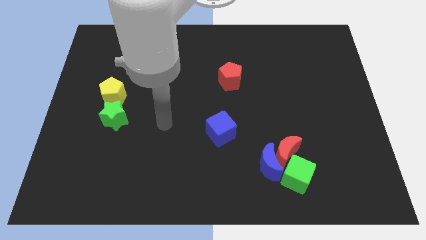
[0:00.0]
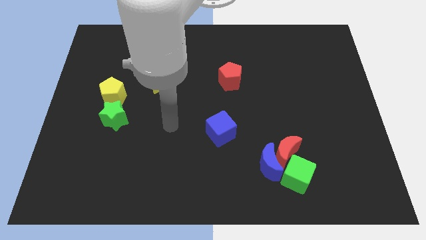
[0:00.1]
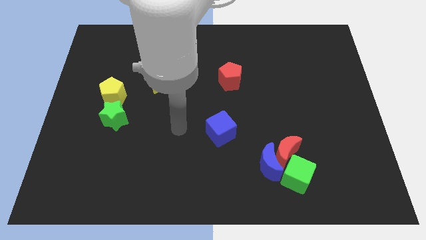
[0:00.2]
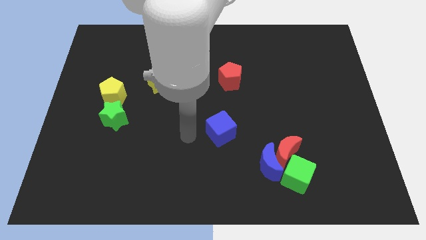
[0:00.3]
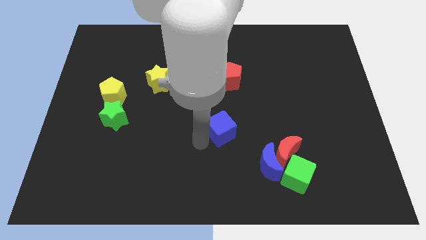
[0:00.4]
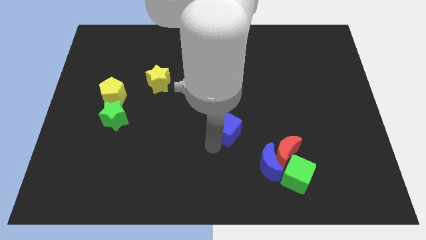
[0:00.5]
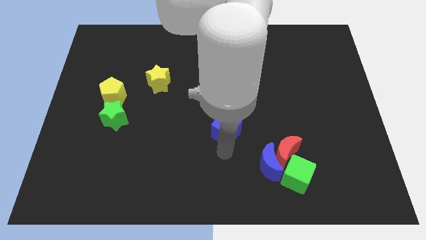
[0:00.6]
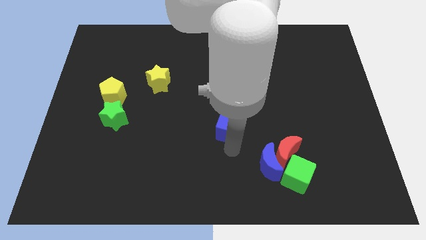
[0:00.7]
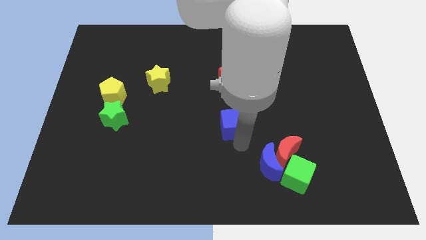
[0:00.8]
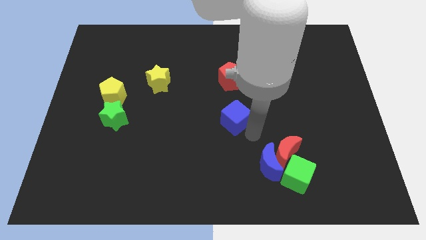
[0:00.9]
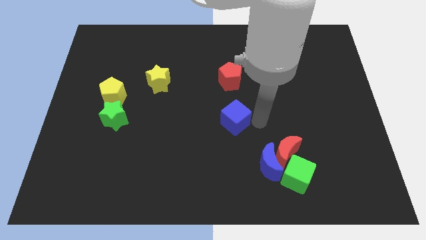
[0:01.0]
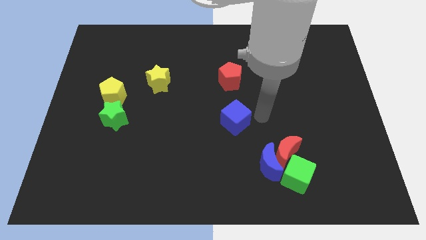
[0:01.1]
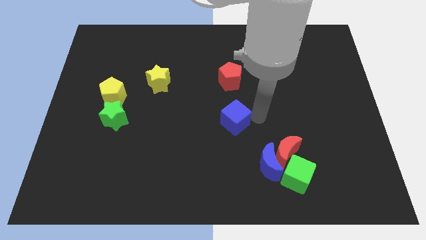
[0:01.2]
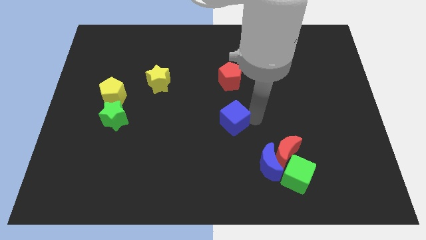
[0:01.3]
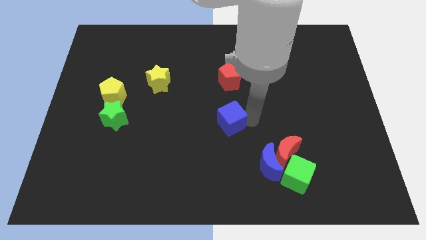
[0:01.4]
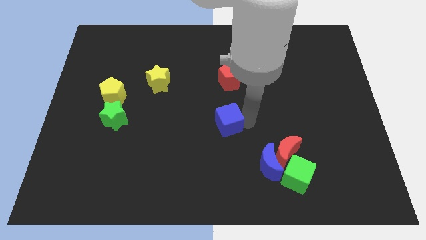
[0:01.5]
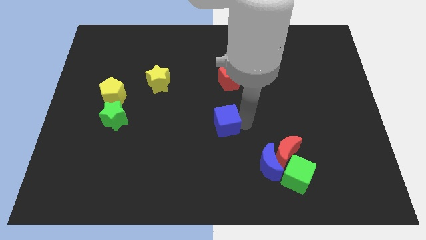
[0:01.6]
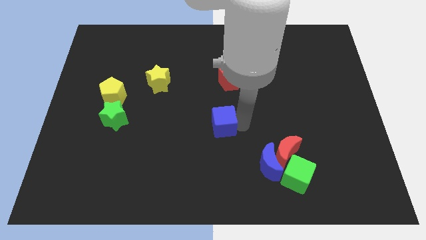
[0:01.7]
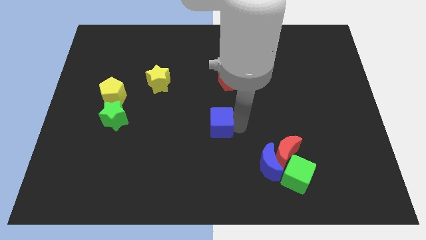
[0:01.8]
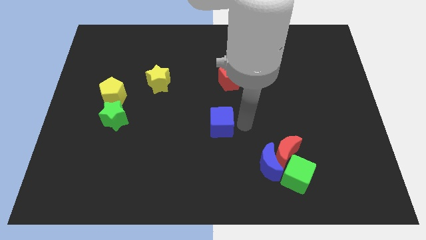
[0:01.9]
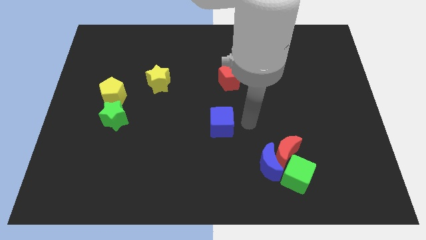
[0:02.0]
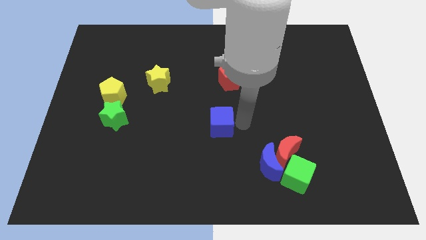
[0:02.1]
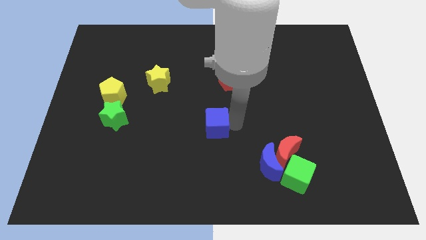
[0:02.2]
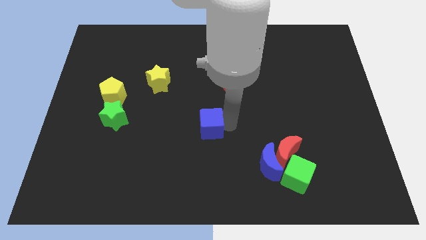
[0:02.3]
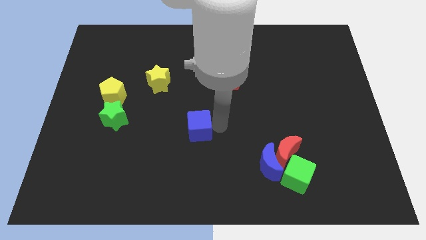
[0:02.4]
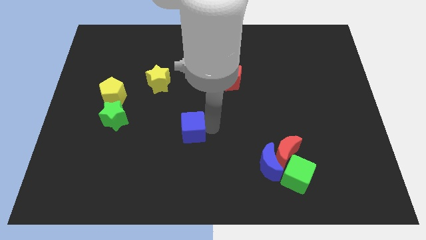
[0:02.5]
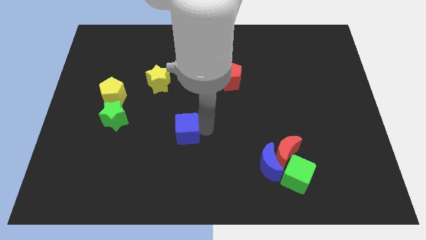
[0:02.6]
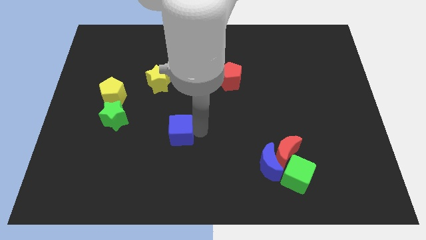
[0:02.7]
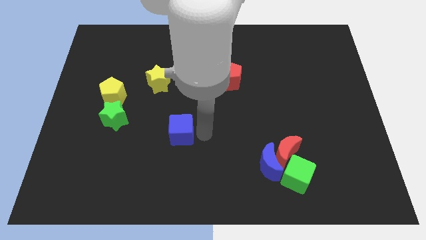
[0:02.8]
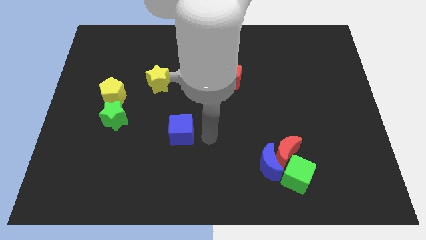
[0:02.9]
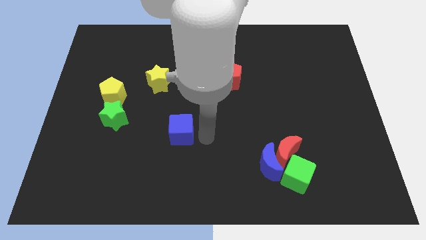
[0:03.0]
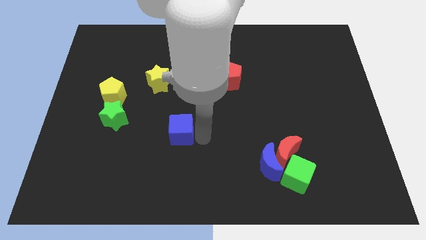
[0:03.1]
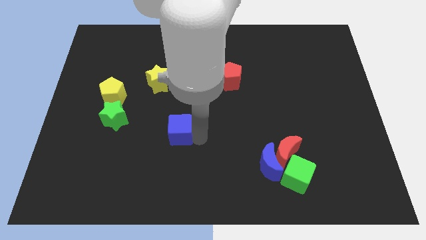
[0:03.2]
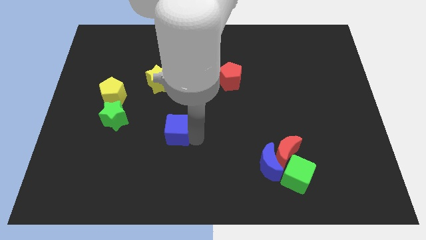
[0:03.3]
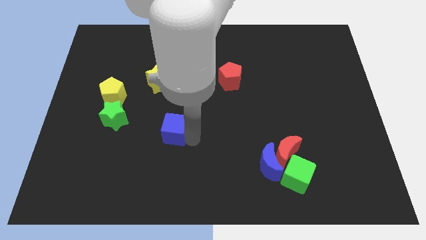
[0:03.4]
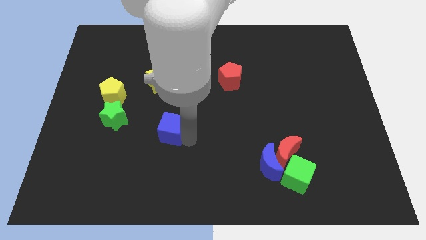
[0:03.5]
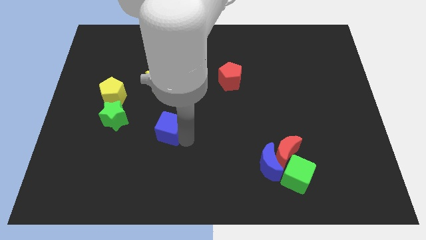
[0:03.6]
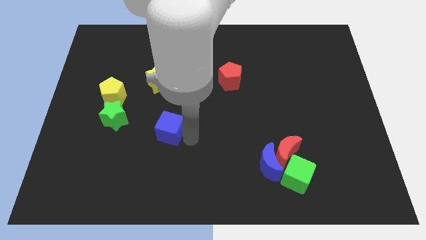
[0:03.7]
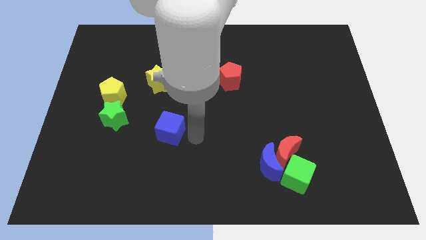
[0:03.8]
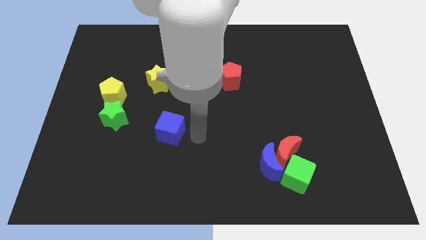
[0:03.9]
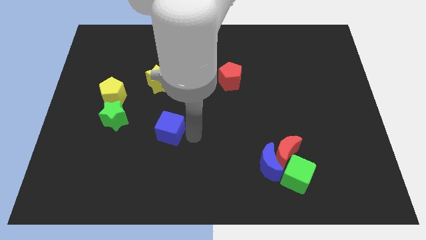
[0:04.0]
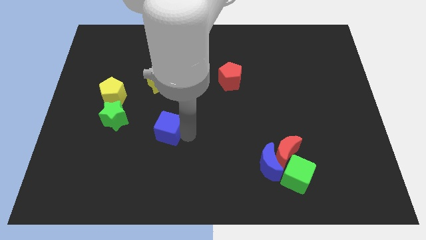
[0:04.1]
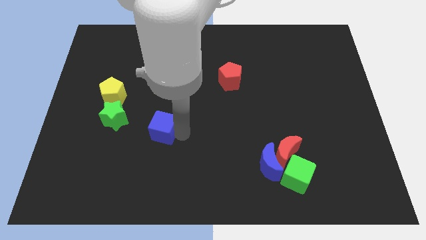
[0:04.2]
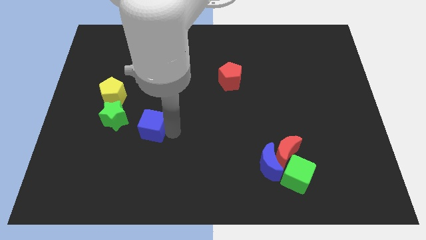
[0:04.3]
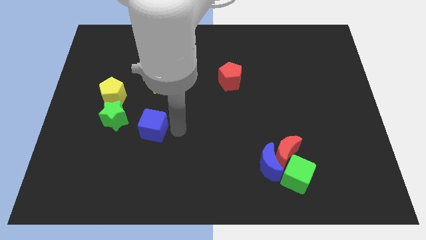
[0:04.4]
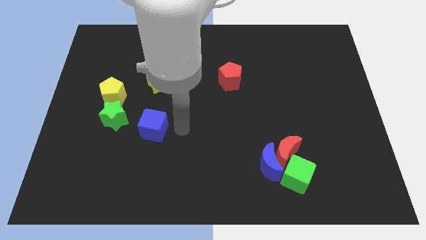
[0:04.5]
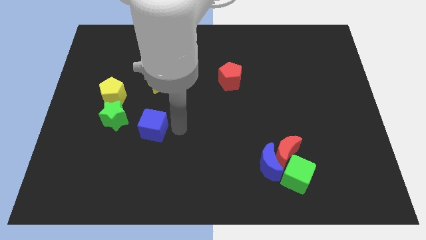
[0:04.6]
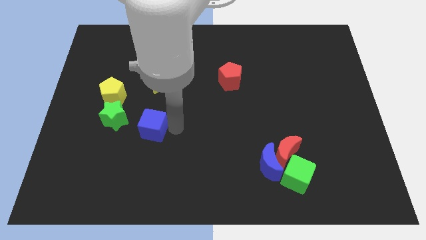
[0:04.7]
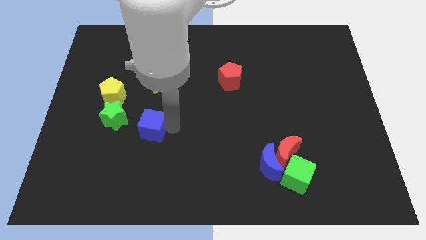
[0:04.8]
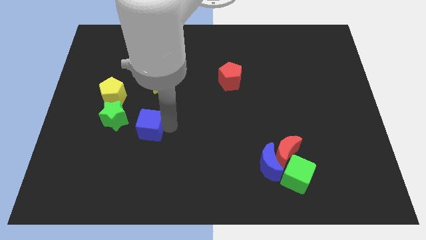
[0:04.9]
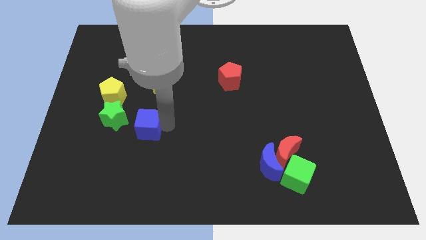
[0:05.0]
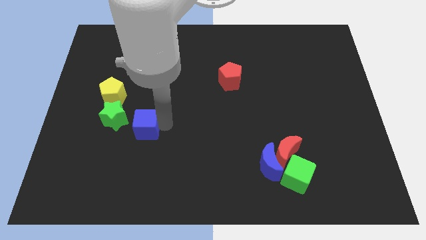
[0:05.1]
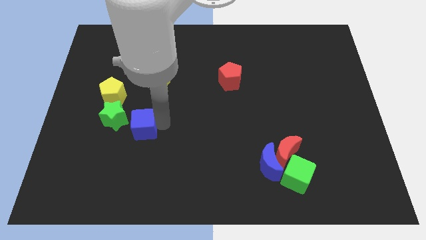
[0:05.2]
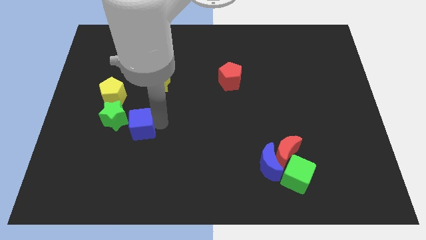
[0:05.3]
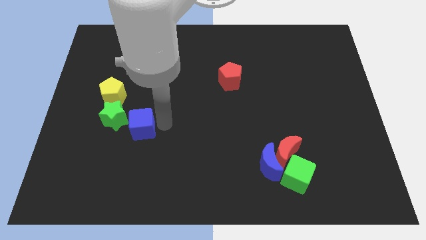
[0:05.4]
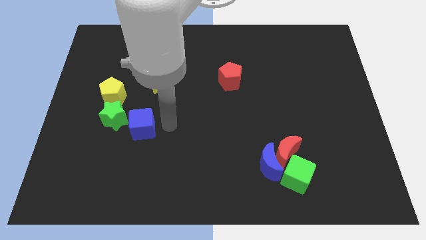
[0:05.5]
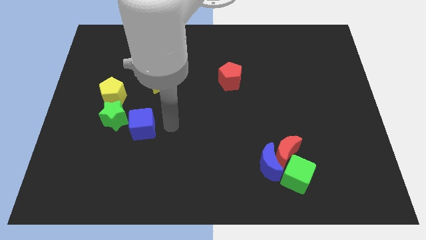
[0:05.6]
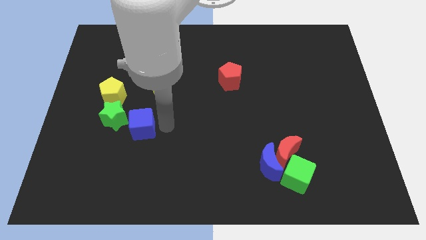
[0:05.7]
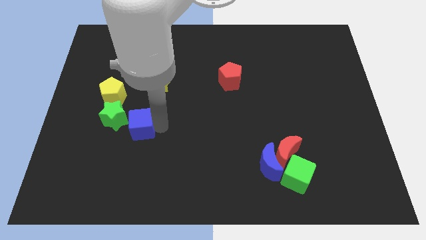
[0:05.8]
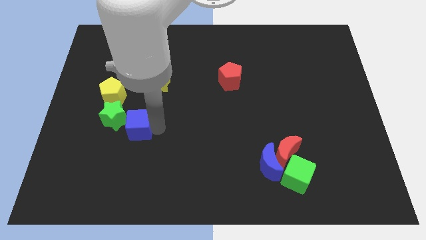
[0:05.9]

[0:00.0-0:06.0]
move the blue cube to the green star

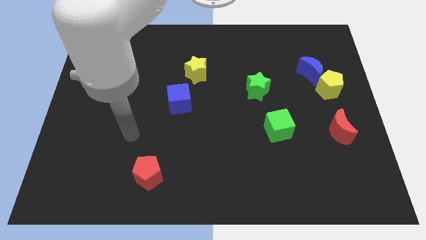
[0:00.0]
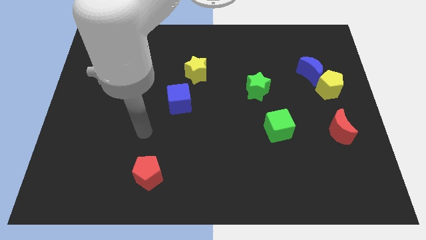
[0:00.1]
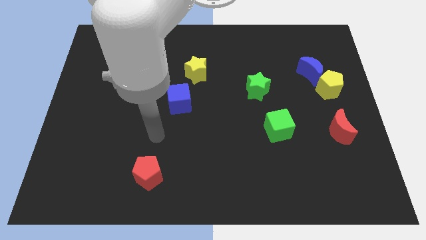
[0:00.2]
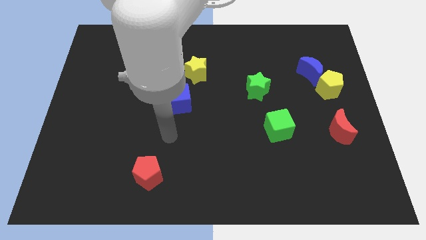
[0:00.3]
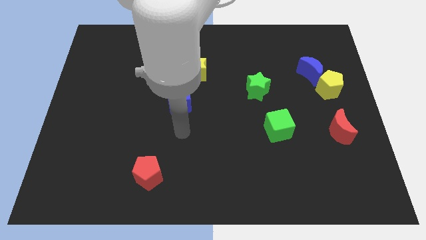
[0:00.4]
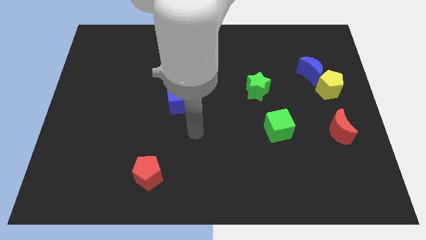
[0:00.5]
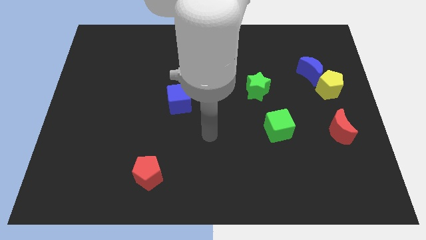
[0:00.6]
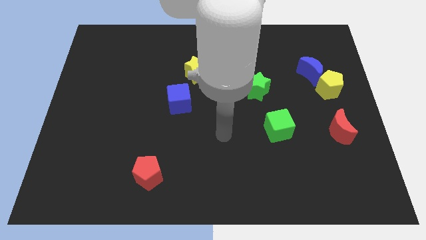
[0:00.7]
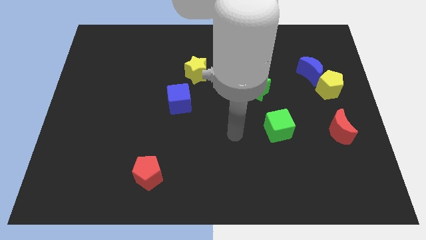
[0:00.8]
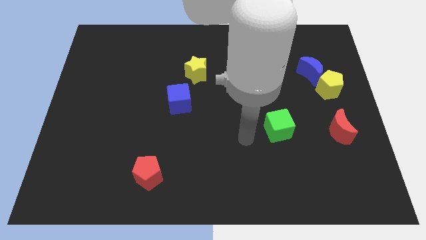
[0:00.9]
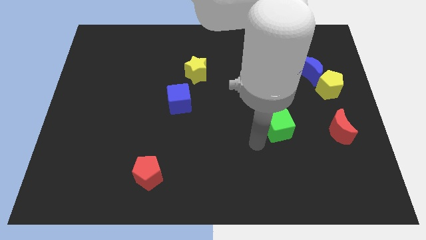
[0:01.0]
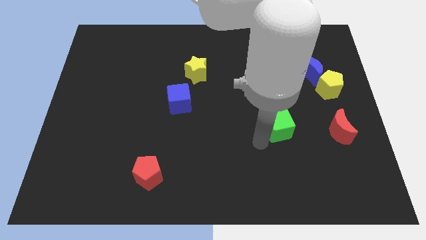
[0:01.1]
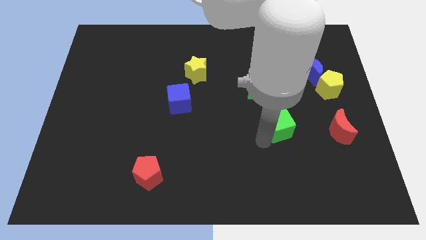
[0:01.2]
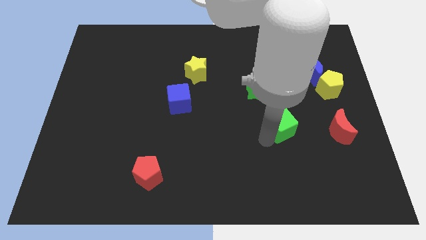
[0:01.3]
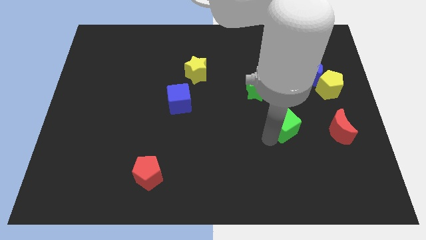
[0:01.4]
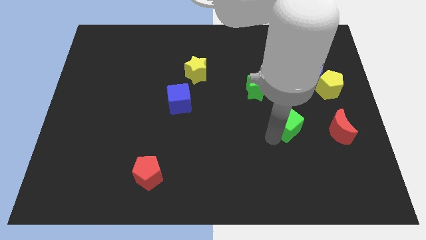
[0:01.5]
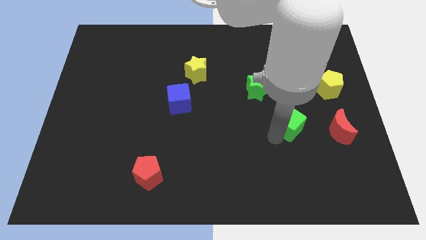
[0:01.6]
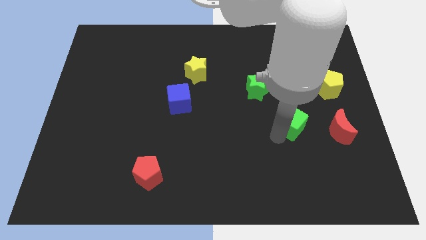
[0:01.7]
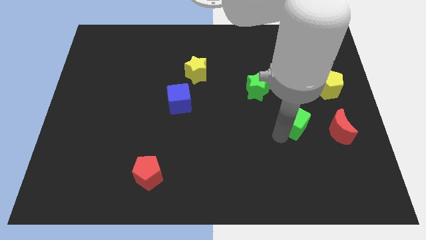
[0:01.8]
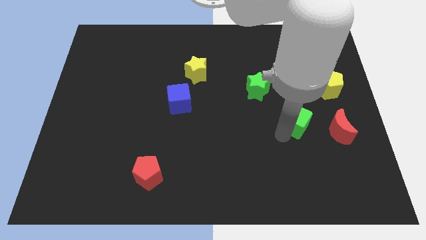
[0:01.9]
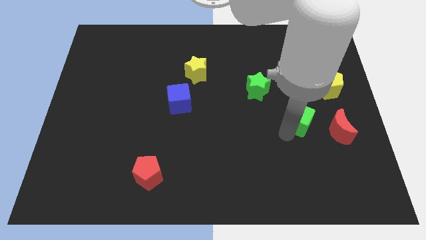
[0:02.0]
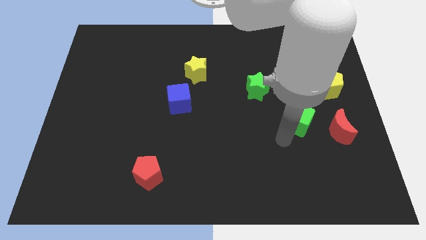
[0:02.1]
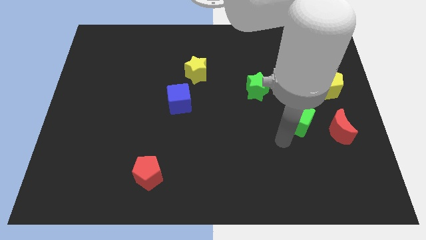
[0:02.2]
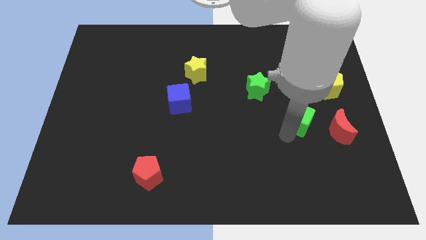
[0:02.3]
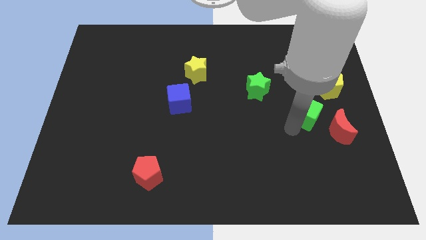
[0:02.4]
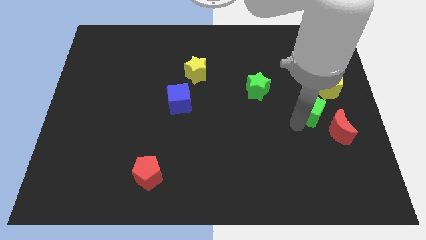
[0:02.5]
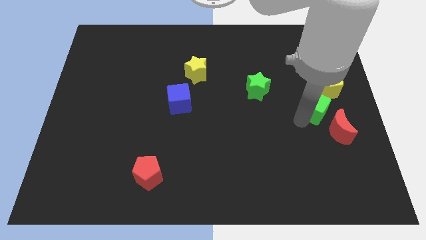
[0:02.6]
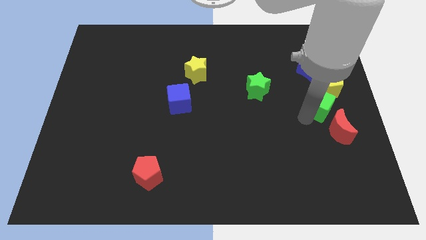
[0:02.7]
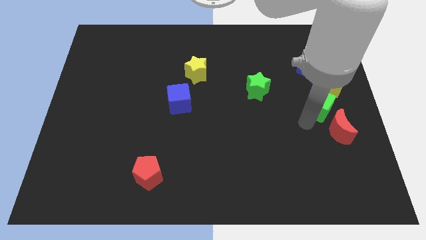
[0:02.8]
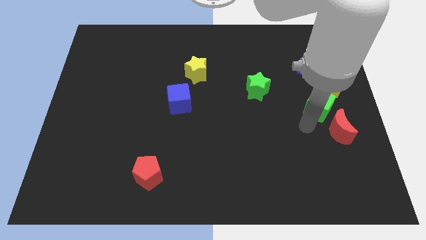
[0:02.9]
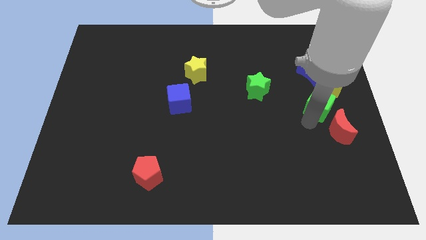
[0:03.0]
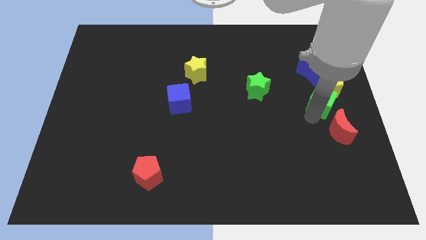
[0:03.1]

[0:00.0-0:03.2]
push the green cube next to the yellow pentagon
